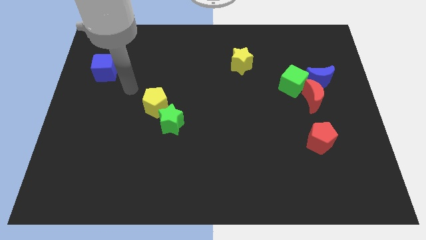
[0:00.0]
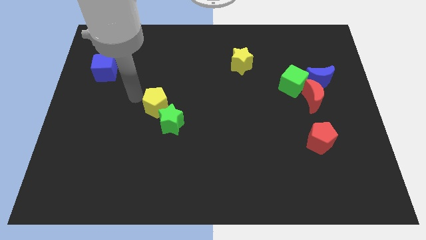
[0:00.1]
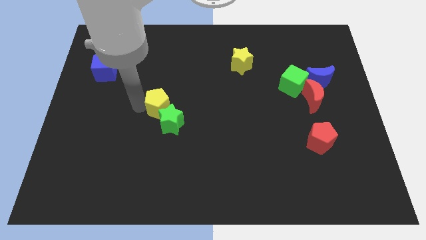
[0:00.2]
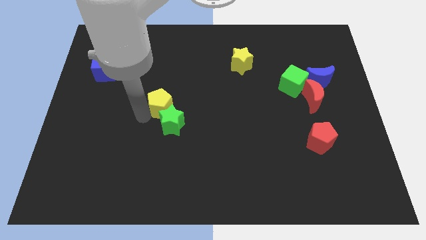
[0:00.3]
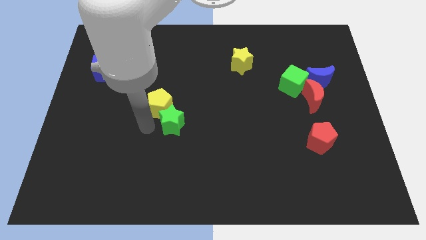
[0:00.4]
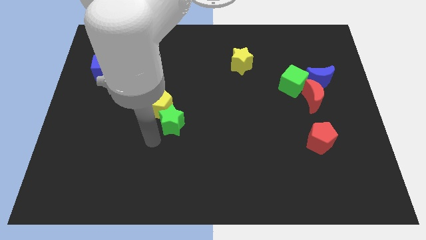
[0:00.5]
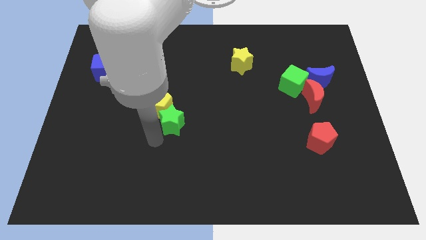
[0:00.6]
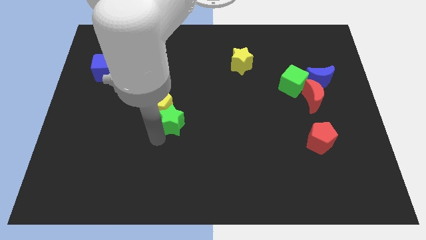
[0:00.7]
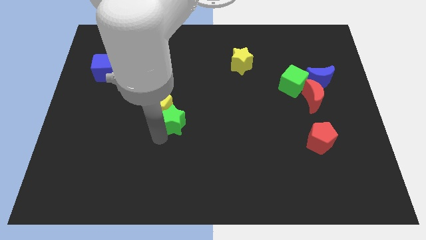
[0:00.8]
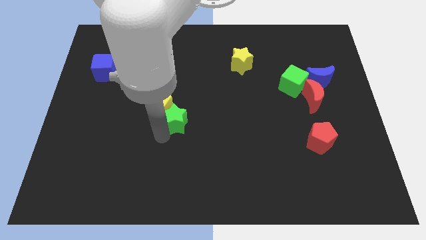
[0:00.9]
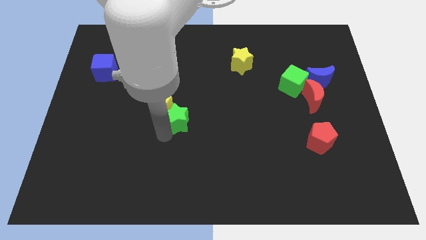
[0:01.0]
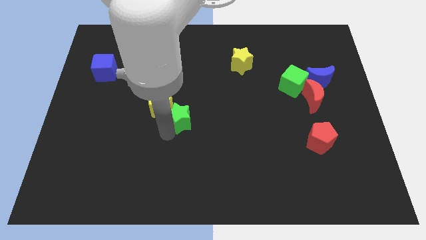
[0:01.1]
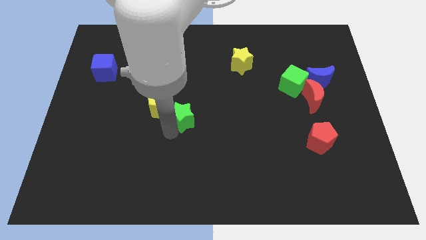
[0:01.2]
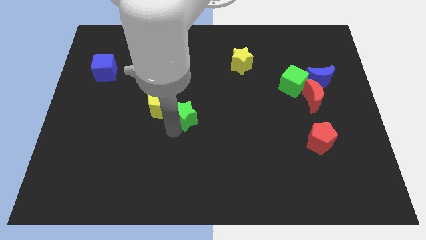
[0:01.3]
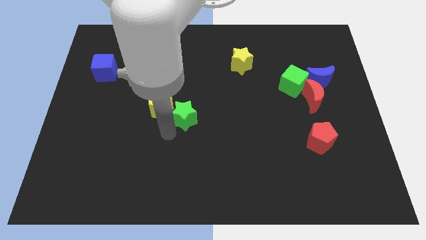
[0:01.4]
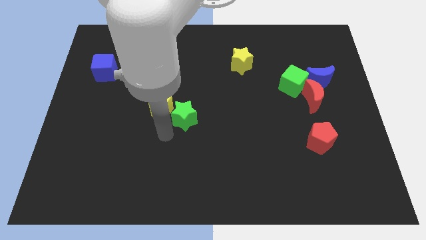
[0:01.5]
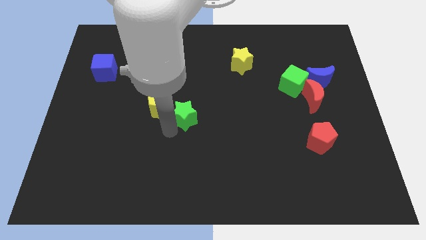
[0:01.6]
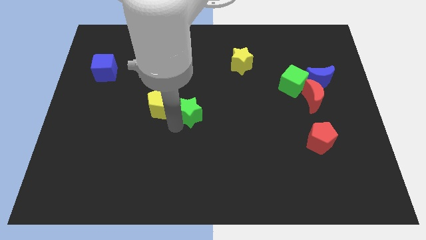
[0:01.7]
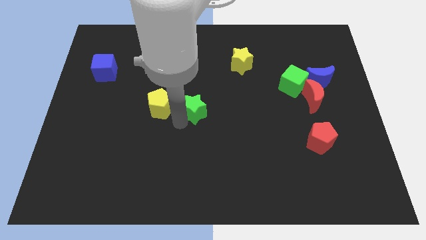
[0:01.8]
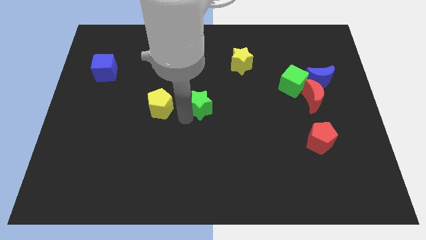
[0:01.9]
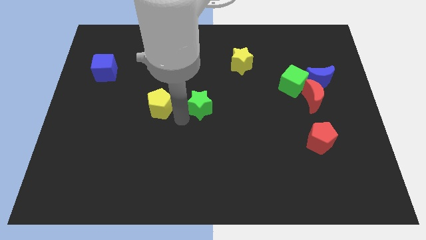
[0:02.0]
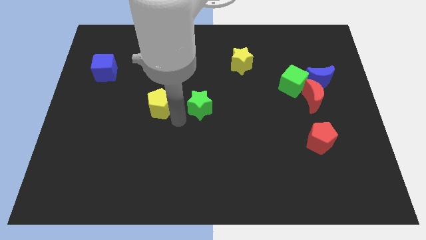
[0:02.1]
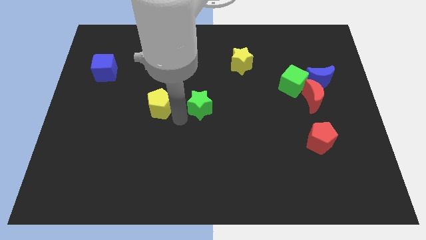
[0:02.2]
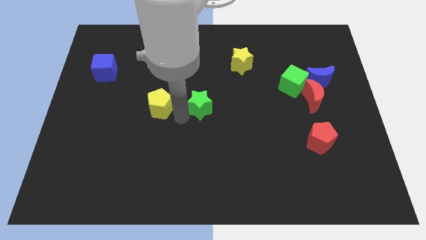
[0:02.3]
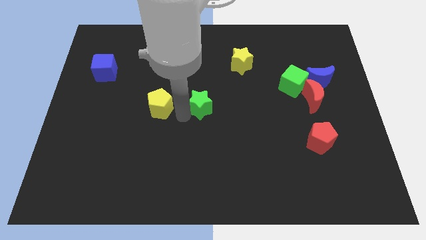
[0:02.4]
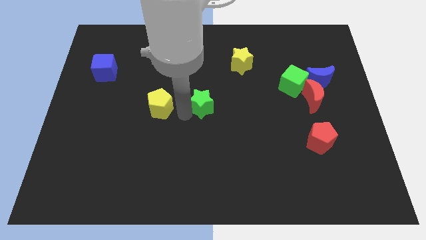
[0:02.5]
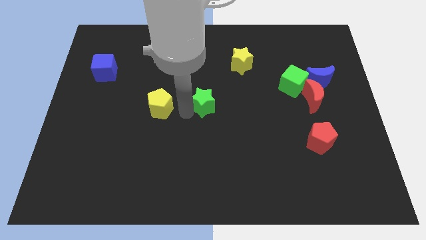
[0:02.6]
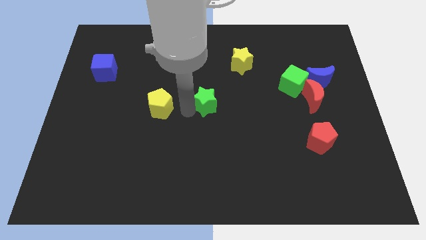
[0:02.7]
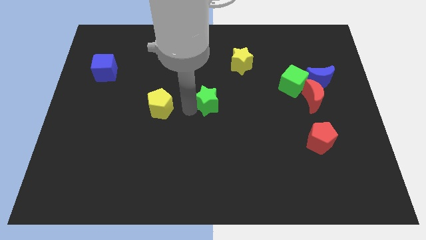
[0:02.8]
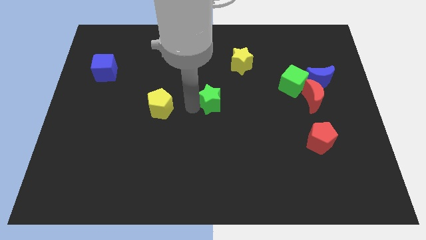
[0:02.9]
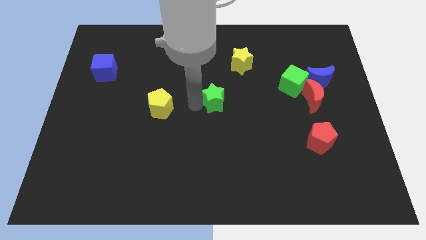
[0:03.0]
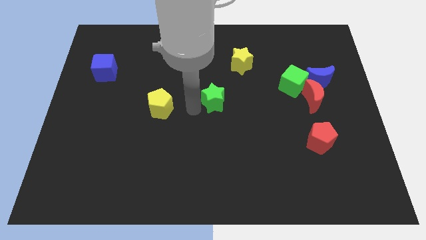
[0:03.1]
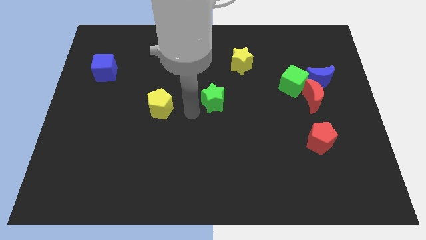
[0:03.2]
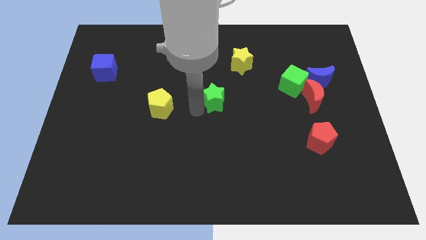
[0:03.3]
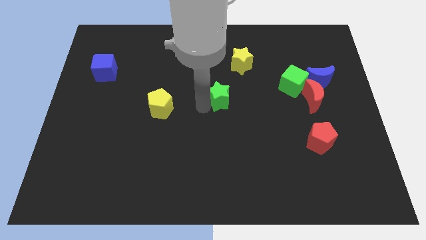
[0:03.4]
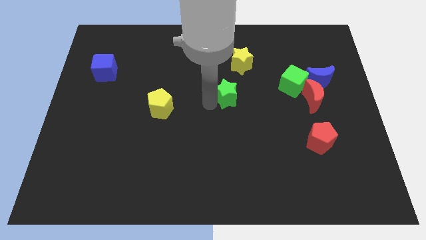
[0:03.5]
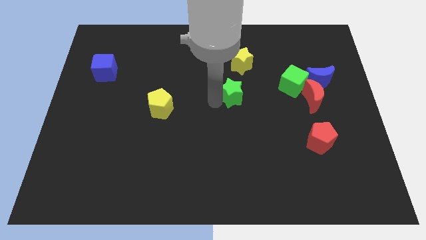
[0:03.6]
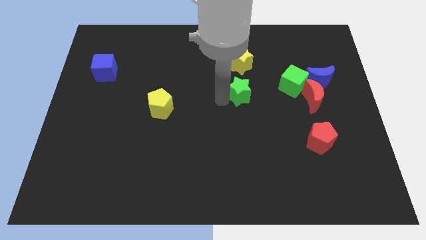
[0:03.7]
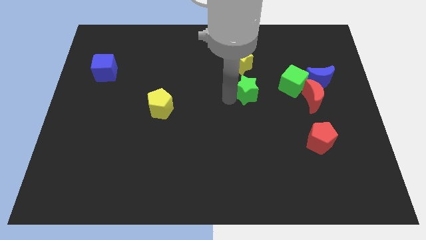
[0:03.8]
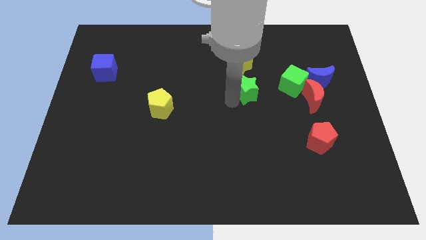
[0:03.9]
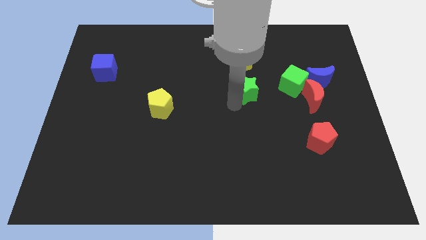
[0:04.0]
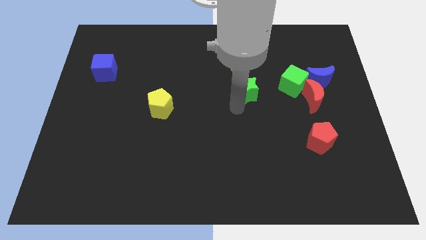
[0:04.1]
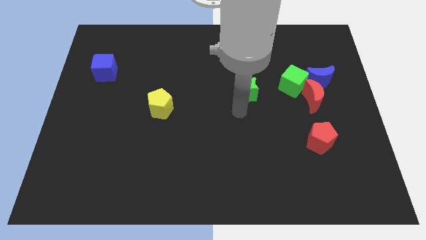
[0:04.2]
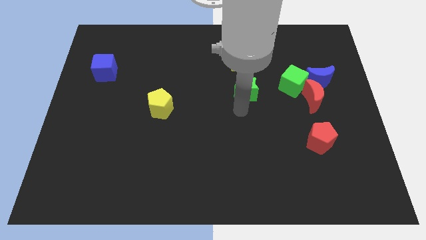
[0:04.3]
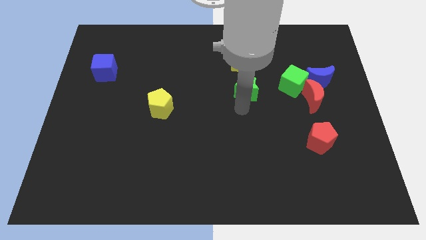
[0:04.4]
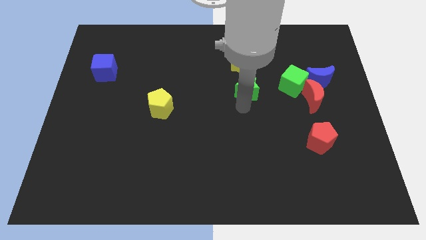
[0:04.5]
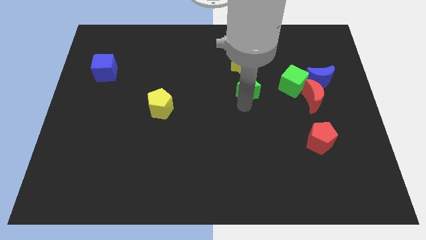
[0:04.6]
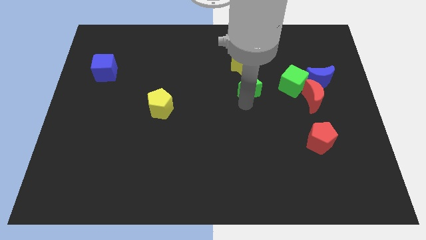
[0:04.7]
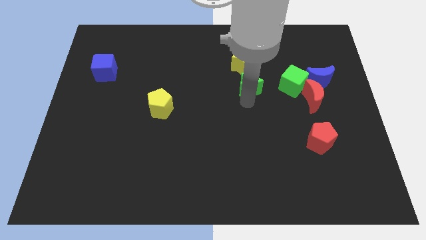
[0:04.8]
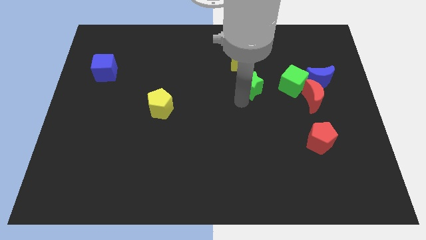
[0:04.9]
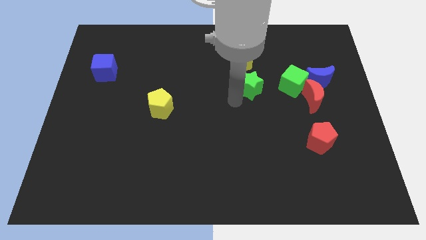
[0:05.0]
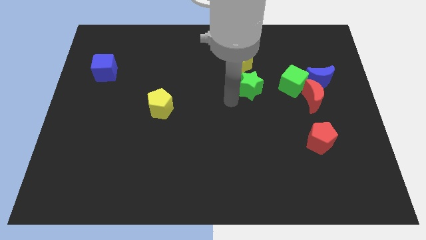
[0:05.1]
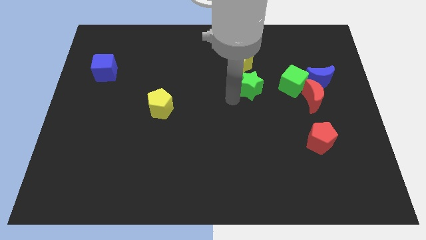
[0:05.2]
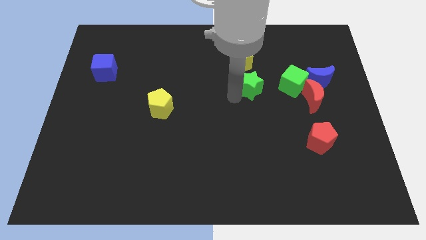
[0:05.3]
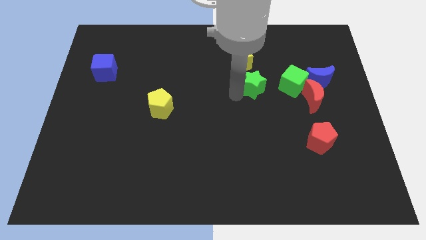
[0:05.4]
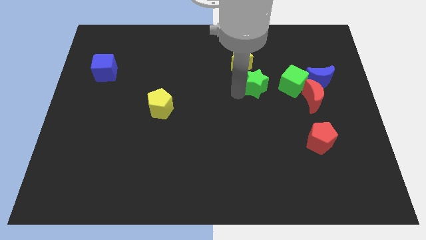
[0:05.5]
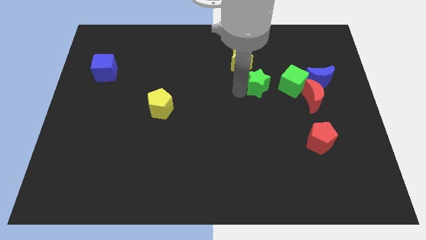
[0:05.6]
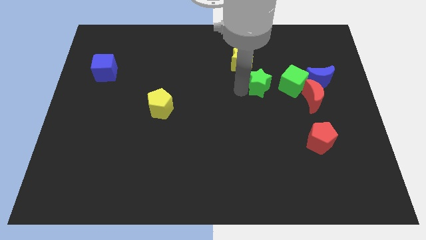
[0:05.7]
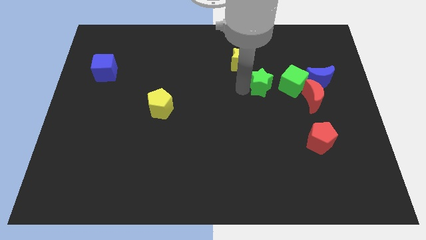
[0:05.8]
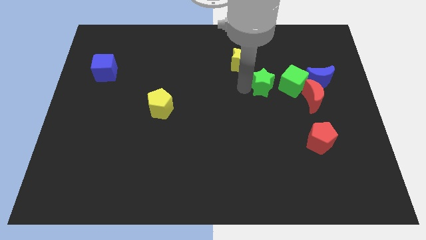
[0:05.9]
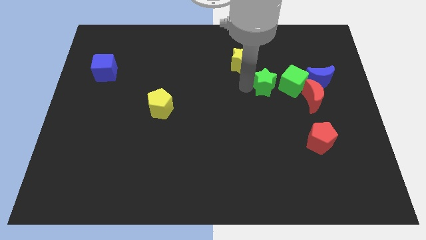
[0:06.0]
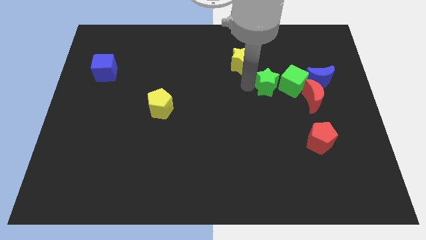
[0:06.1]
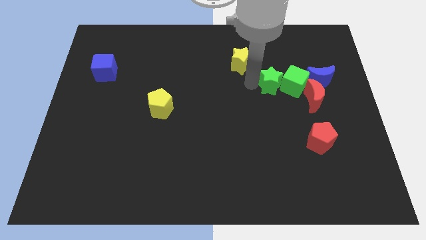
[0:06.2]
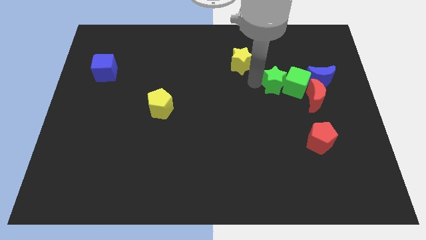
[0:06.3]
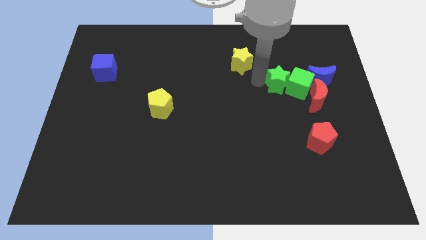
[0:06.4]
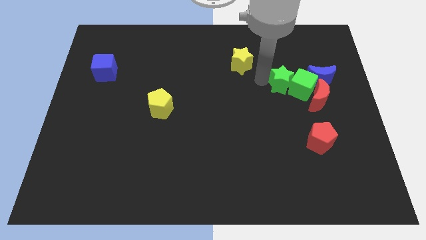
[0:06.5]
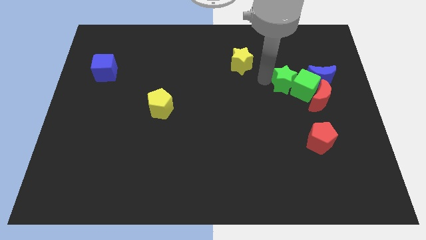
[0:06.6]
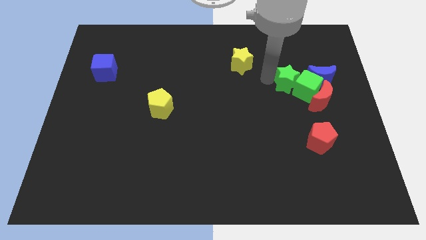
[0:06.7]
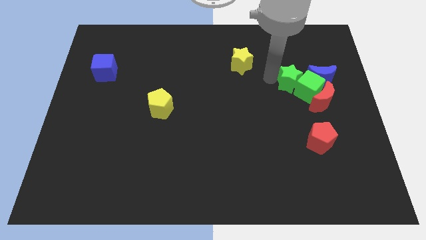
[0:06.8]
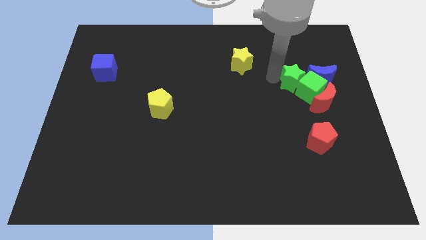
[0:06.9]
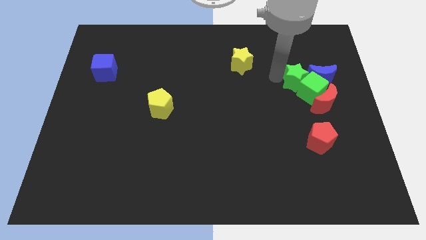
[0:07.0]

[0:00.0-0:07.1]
move the green star diagonally up and to the left of the blue moon
